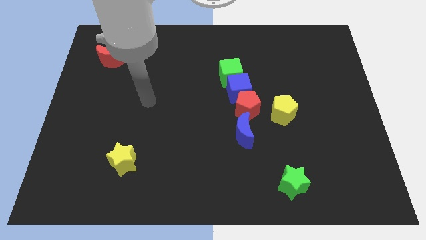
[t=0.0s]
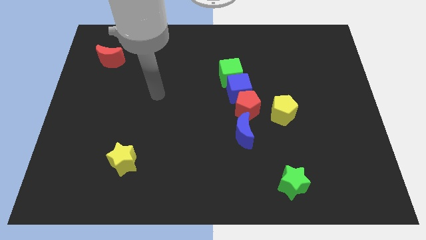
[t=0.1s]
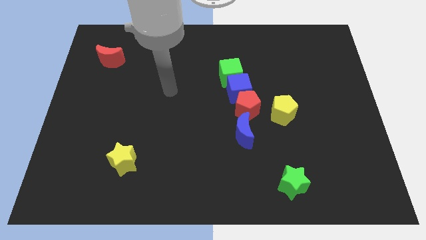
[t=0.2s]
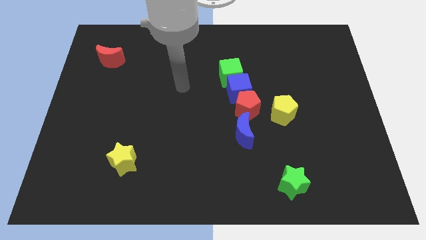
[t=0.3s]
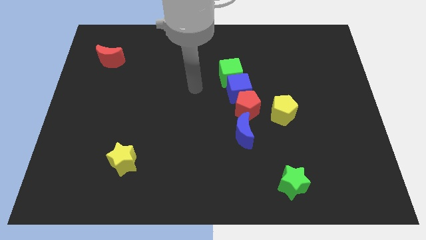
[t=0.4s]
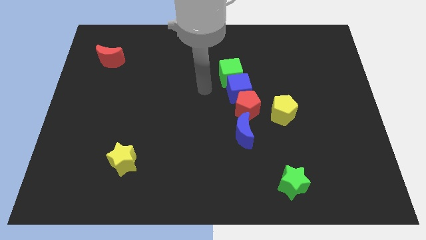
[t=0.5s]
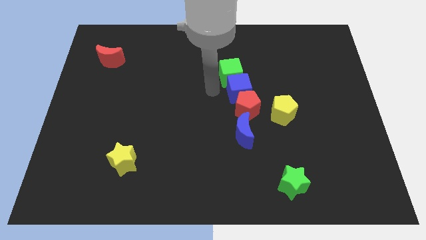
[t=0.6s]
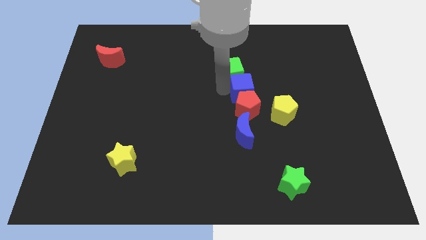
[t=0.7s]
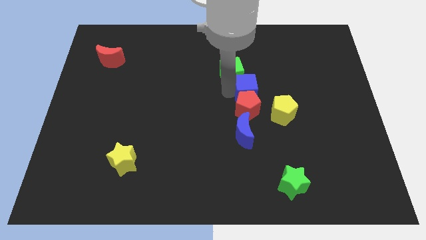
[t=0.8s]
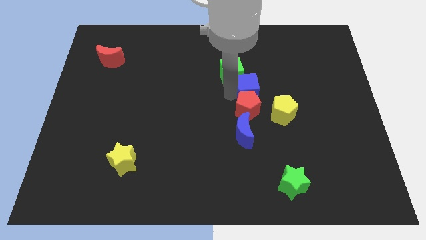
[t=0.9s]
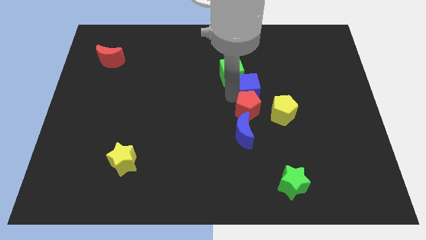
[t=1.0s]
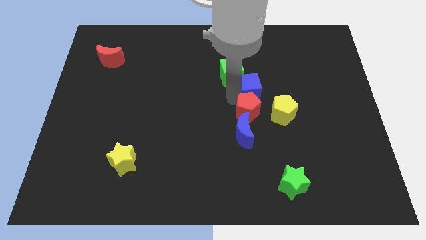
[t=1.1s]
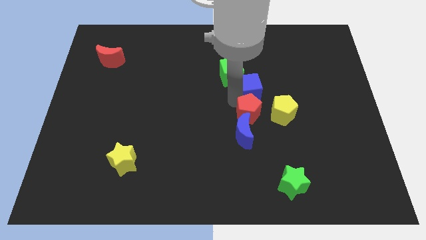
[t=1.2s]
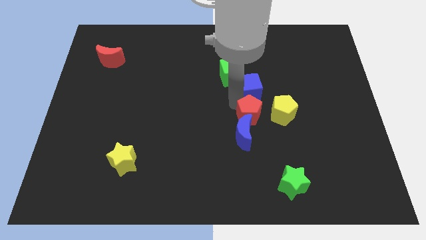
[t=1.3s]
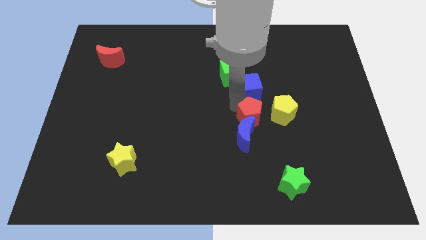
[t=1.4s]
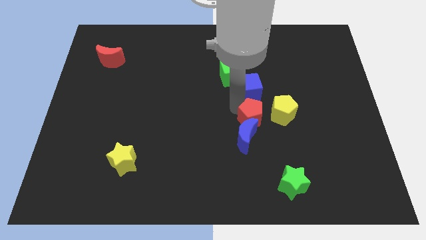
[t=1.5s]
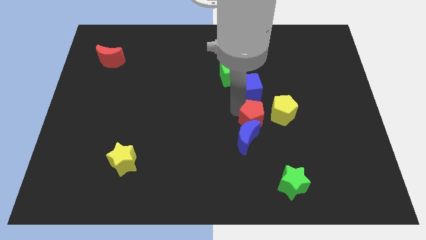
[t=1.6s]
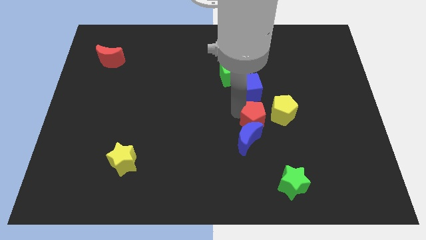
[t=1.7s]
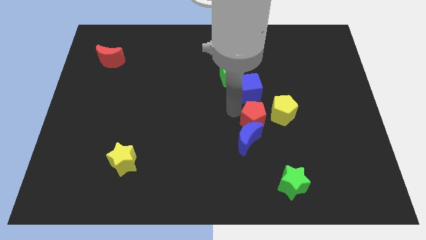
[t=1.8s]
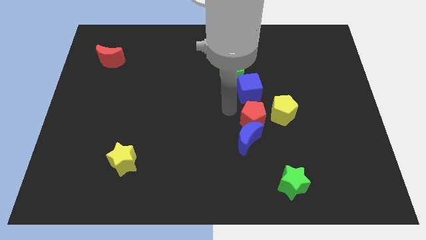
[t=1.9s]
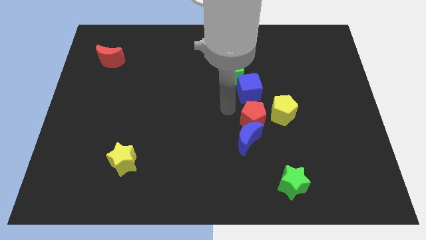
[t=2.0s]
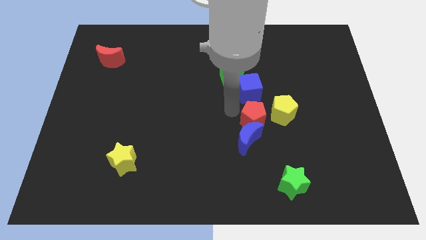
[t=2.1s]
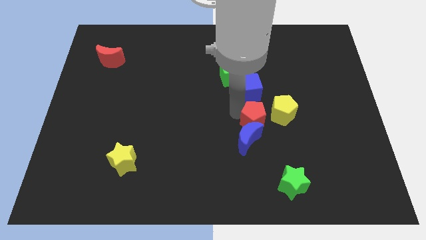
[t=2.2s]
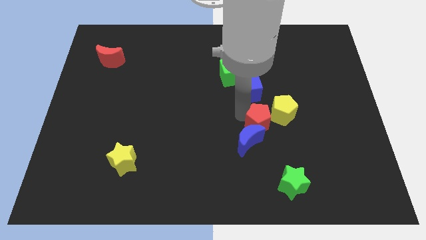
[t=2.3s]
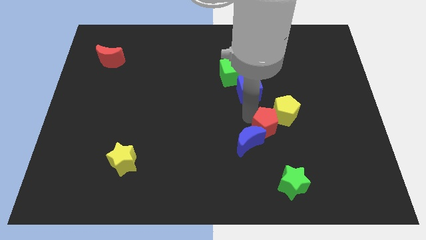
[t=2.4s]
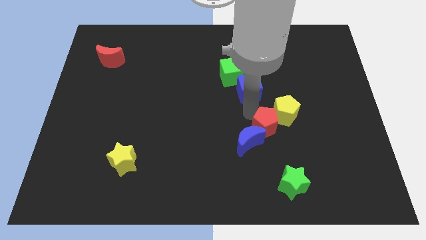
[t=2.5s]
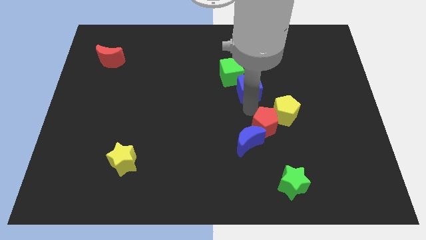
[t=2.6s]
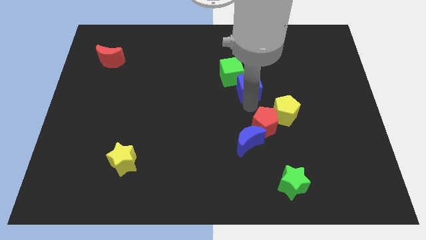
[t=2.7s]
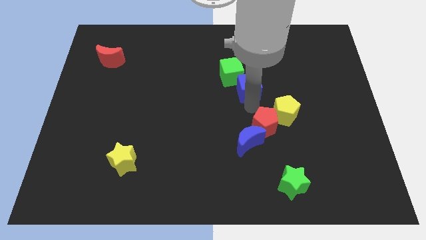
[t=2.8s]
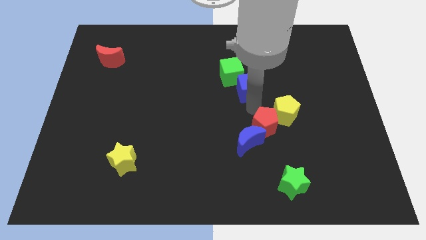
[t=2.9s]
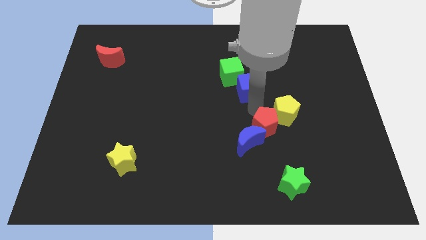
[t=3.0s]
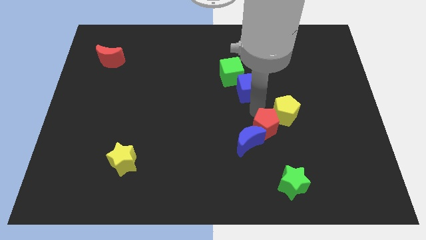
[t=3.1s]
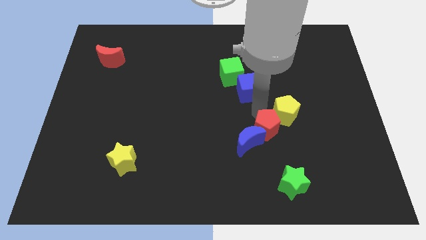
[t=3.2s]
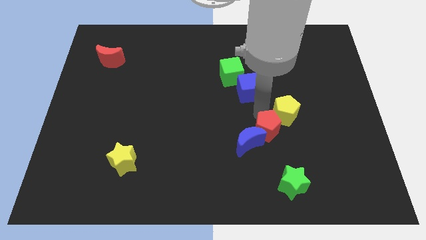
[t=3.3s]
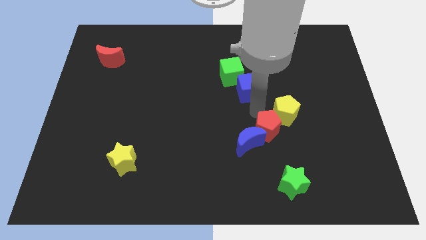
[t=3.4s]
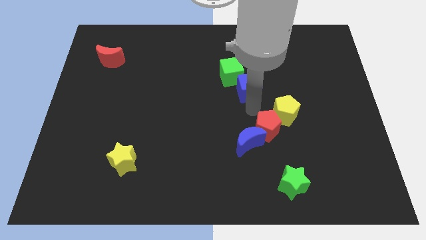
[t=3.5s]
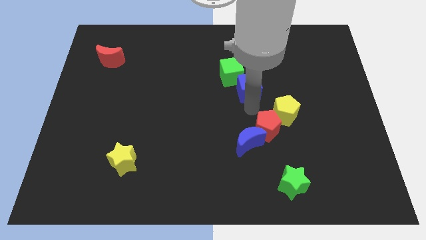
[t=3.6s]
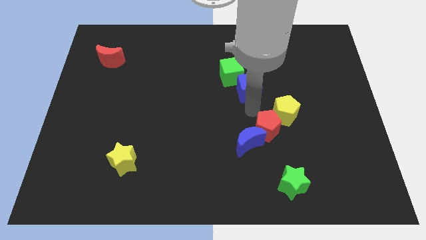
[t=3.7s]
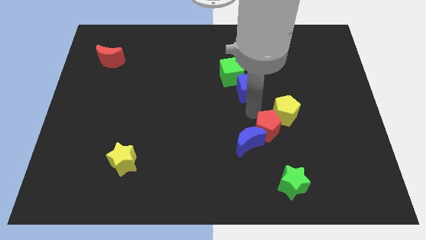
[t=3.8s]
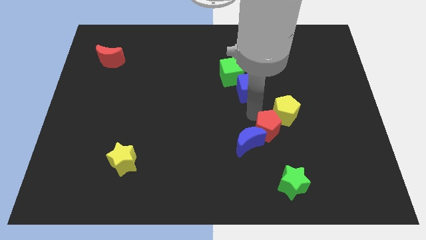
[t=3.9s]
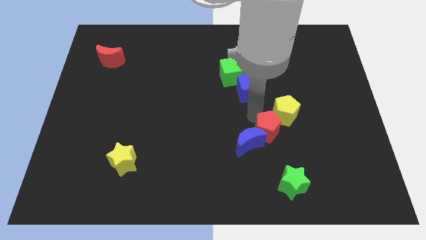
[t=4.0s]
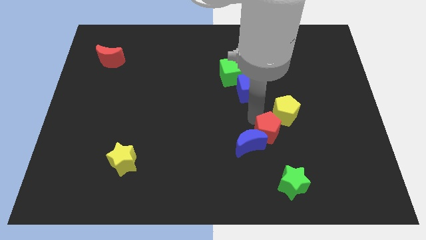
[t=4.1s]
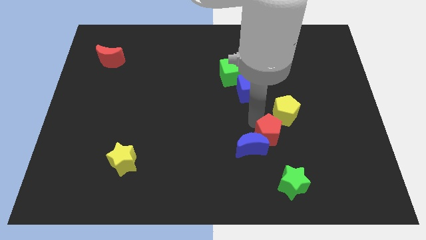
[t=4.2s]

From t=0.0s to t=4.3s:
slightly slide the red pentagon downwards

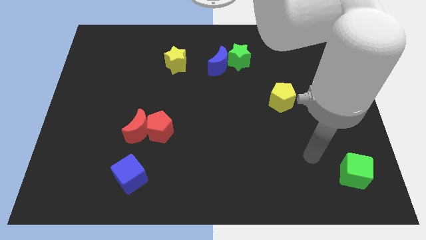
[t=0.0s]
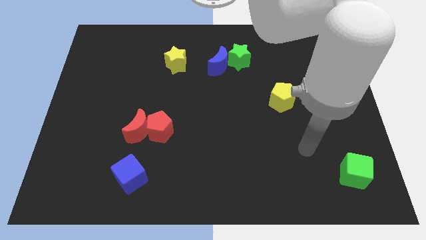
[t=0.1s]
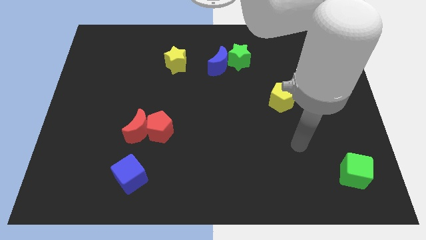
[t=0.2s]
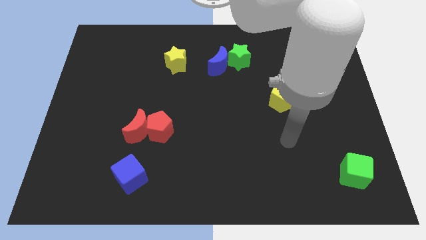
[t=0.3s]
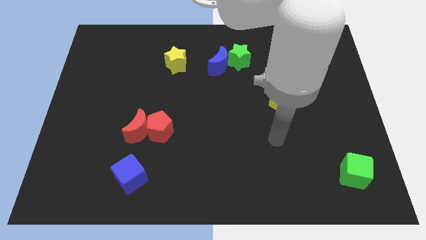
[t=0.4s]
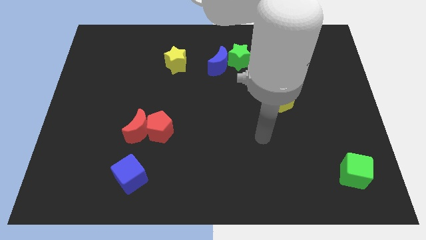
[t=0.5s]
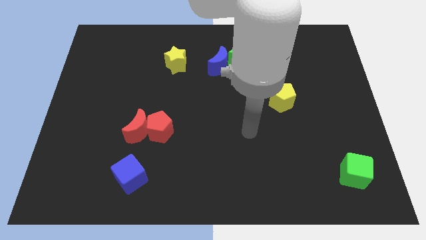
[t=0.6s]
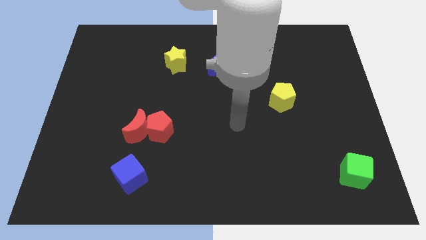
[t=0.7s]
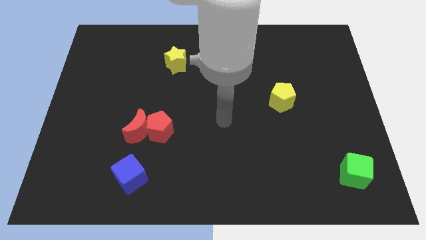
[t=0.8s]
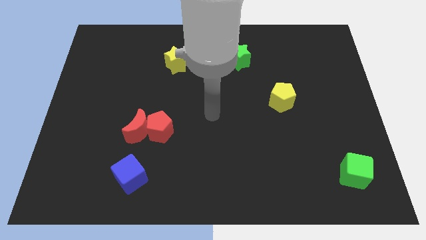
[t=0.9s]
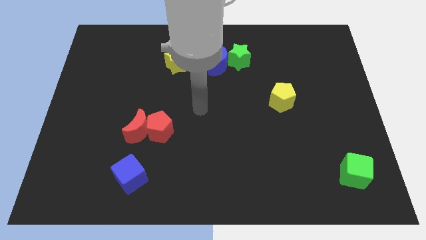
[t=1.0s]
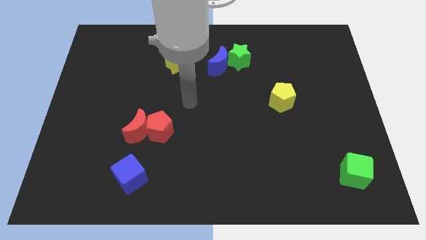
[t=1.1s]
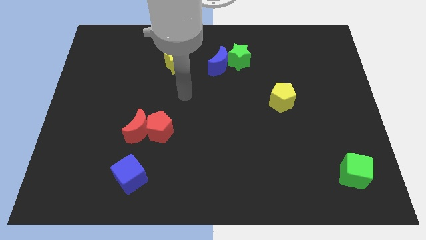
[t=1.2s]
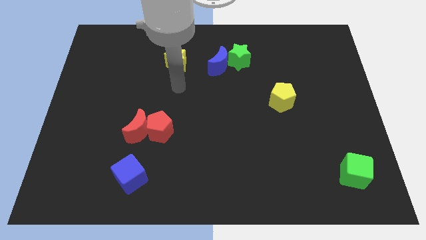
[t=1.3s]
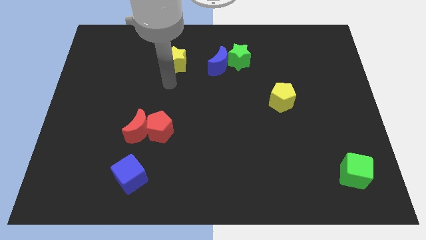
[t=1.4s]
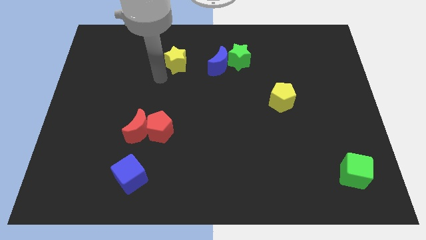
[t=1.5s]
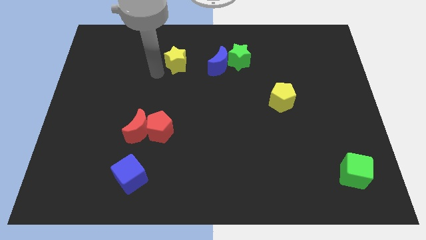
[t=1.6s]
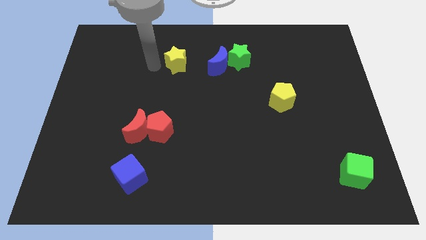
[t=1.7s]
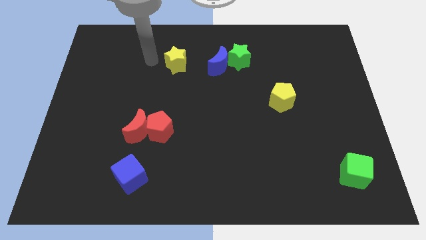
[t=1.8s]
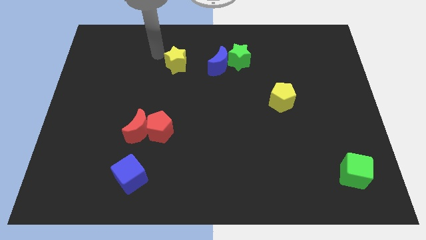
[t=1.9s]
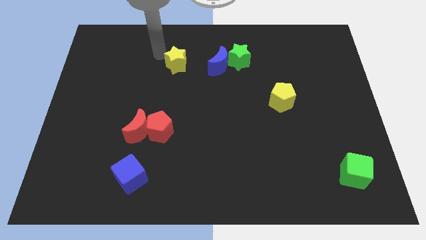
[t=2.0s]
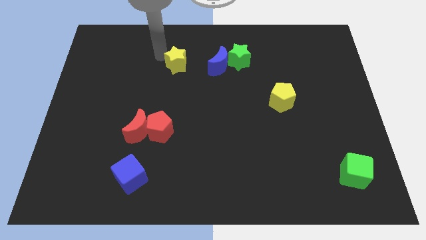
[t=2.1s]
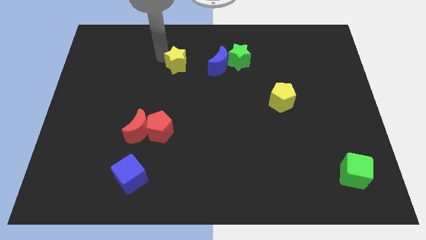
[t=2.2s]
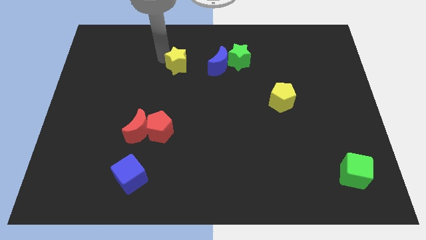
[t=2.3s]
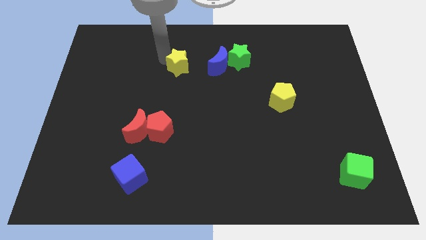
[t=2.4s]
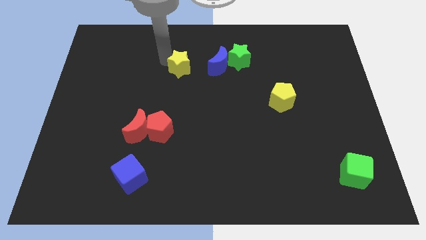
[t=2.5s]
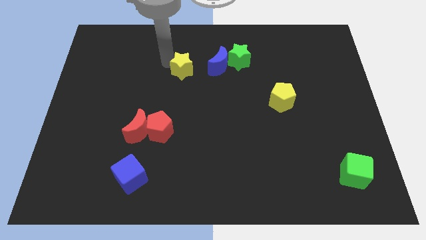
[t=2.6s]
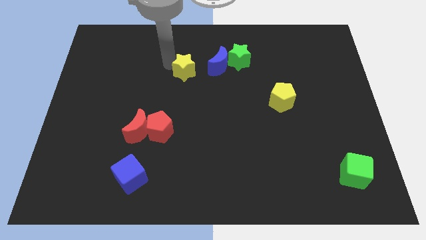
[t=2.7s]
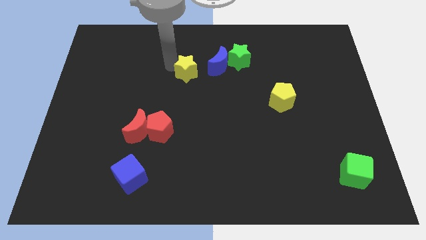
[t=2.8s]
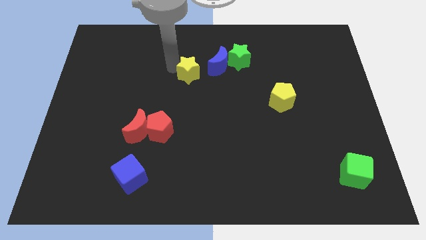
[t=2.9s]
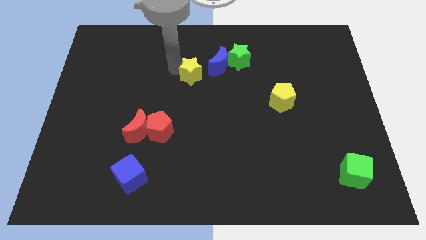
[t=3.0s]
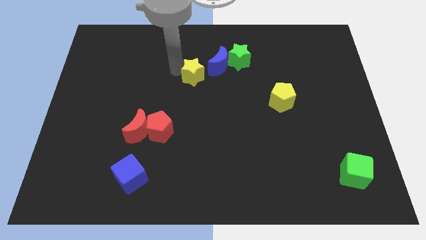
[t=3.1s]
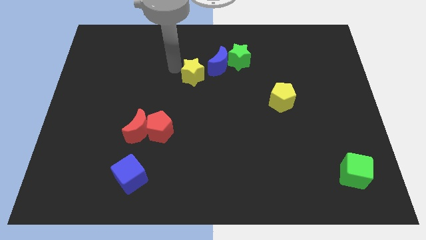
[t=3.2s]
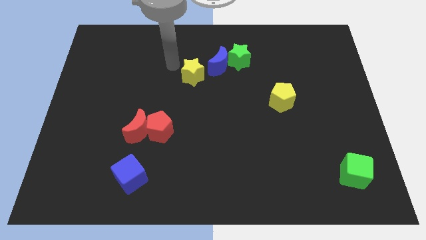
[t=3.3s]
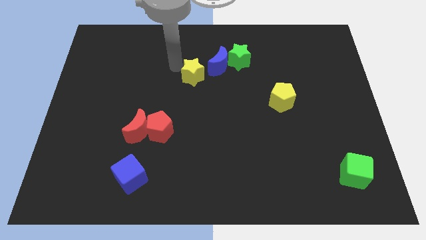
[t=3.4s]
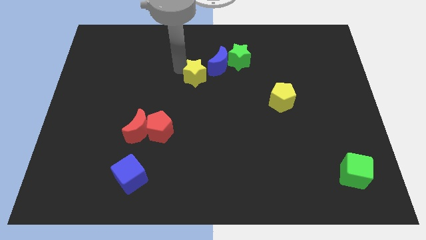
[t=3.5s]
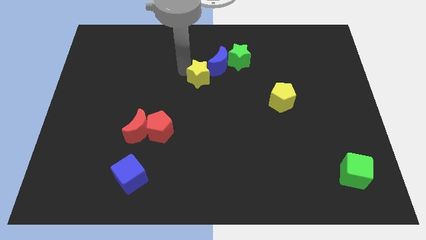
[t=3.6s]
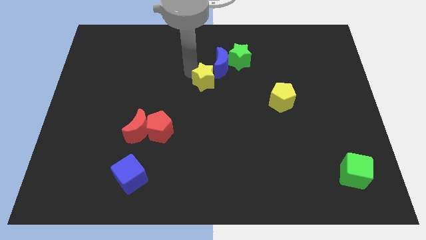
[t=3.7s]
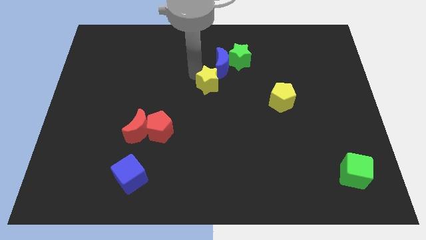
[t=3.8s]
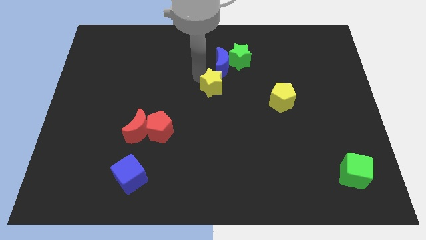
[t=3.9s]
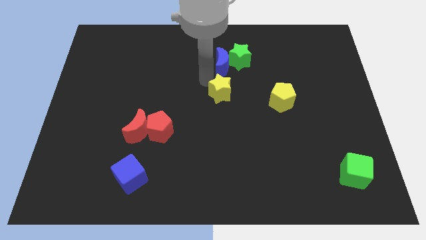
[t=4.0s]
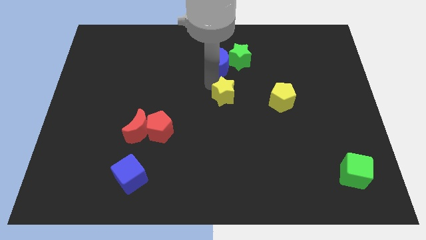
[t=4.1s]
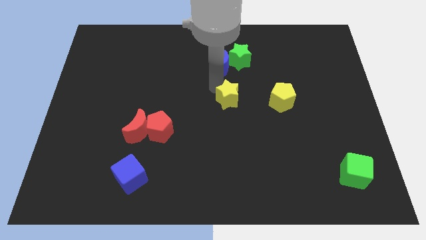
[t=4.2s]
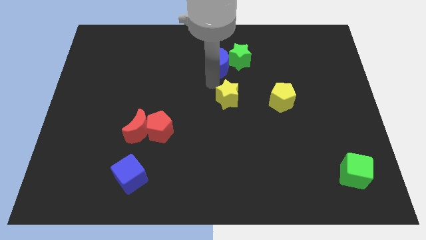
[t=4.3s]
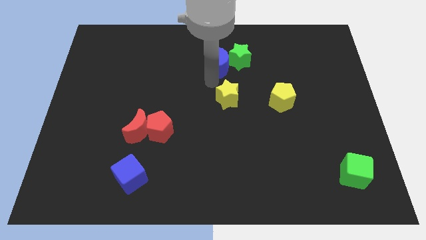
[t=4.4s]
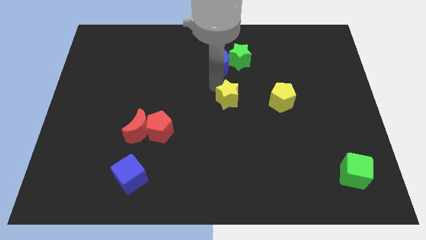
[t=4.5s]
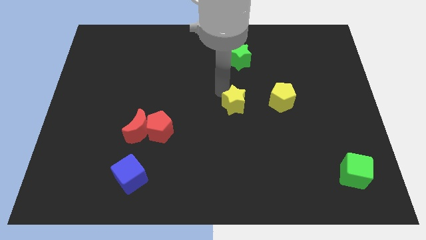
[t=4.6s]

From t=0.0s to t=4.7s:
push the yellow star down and right
